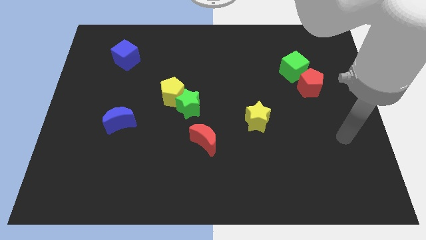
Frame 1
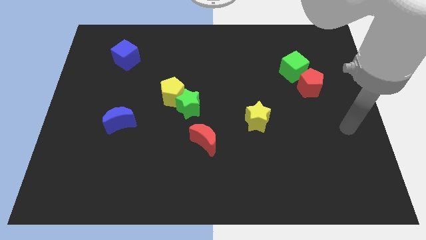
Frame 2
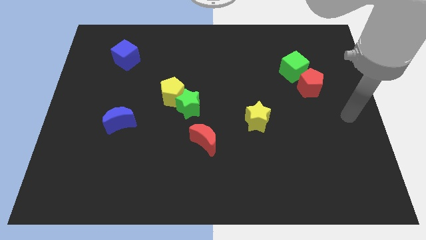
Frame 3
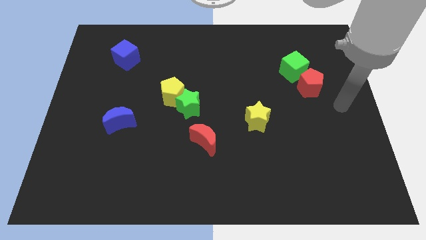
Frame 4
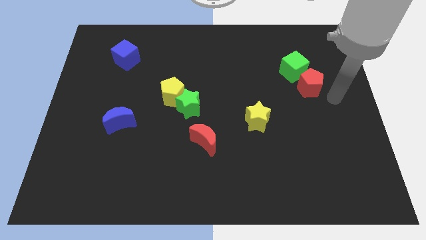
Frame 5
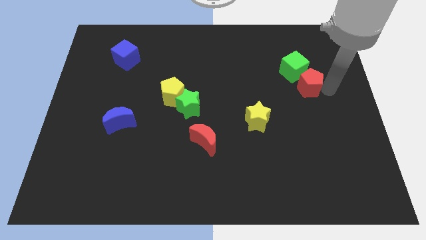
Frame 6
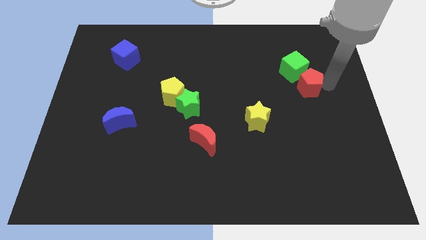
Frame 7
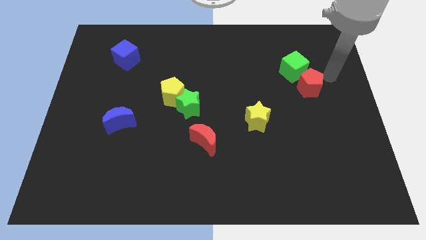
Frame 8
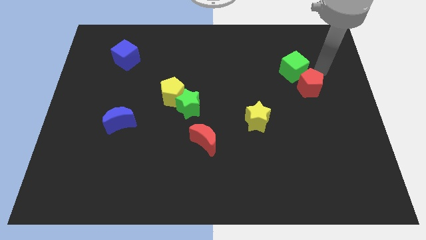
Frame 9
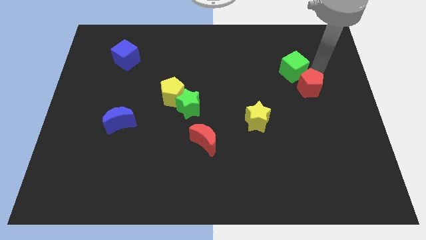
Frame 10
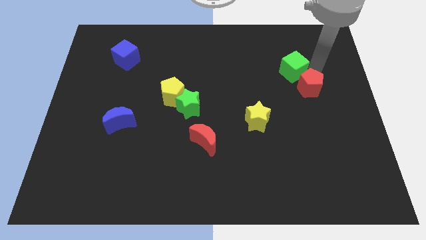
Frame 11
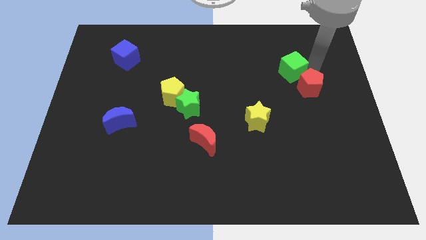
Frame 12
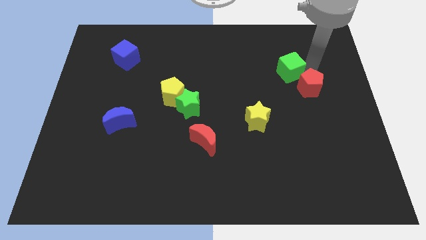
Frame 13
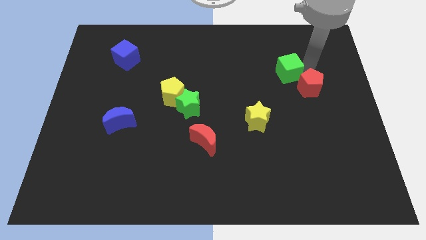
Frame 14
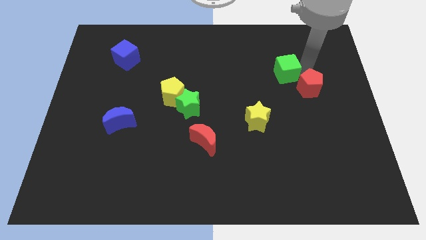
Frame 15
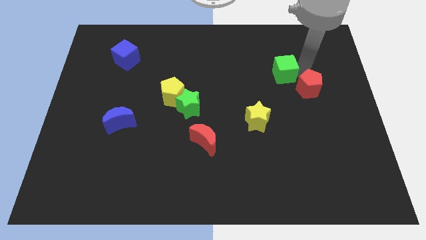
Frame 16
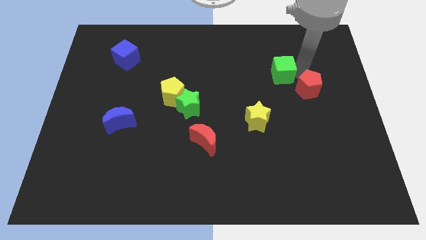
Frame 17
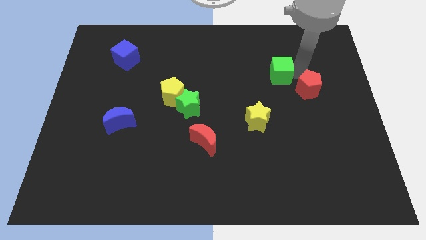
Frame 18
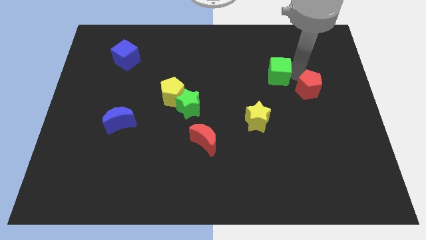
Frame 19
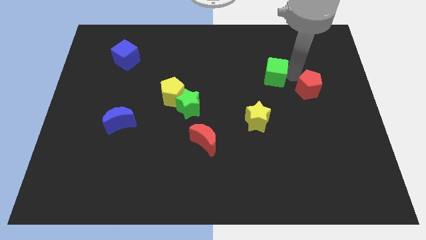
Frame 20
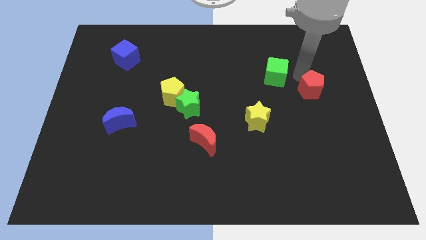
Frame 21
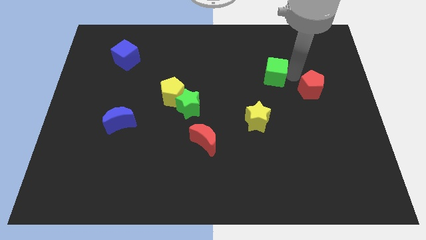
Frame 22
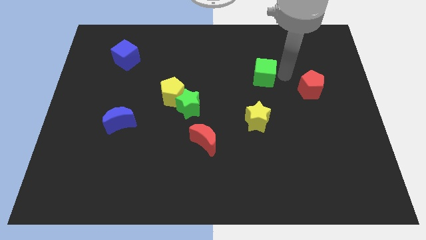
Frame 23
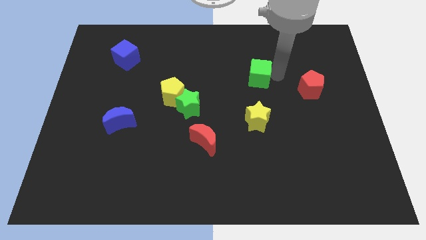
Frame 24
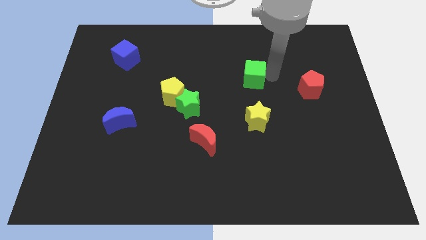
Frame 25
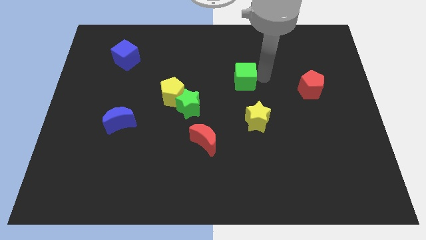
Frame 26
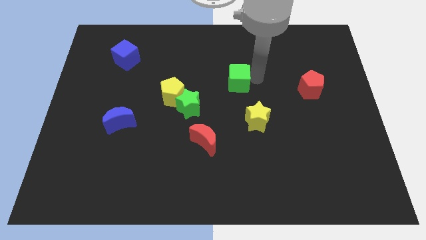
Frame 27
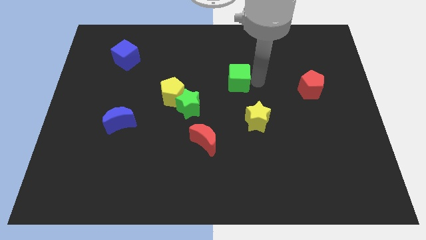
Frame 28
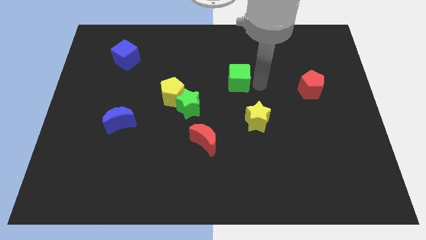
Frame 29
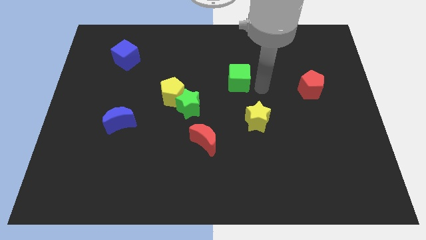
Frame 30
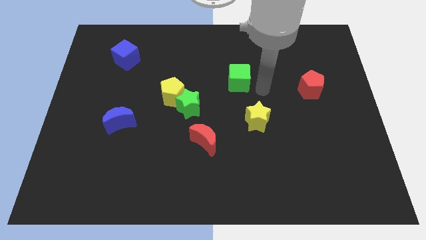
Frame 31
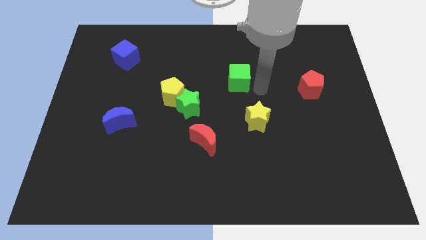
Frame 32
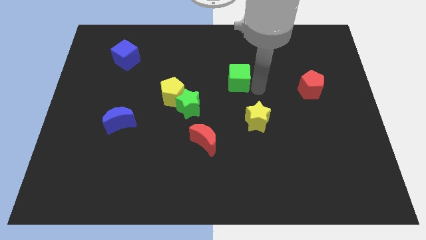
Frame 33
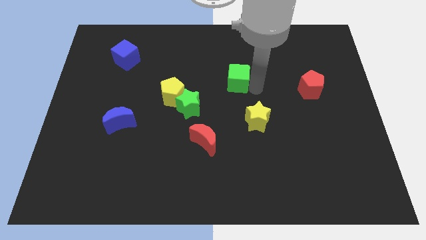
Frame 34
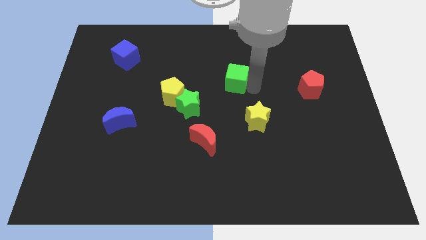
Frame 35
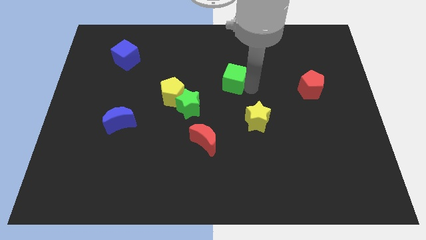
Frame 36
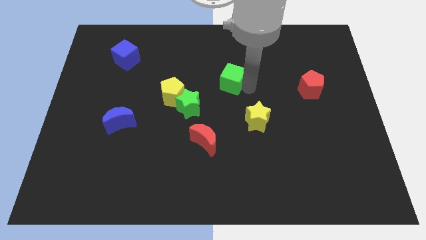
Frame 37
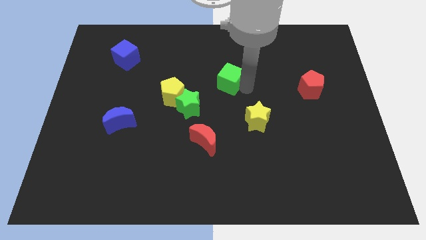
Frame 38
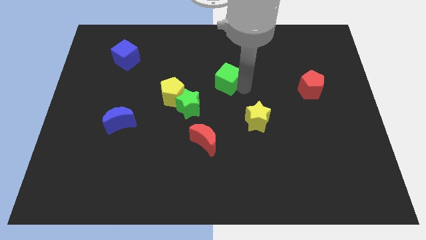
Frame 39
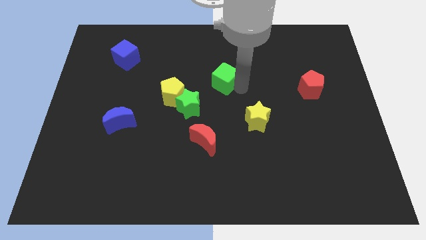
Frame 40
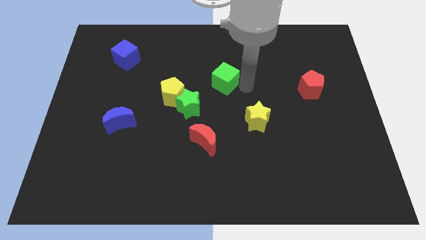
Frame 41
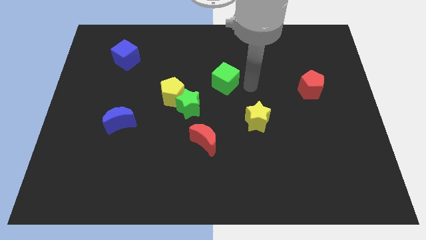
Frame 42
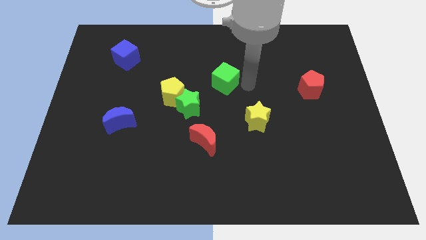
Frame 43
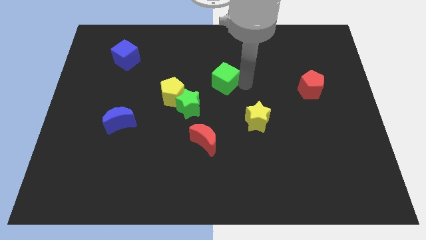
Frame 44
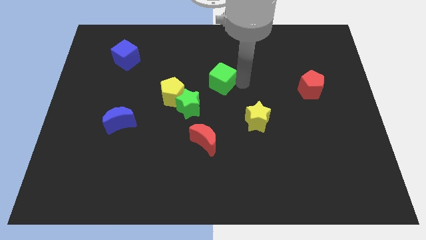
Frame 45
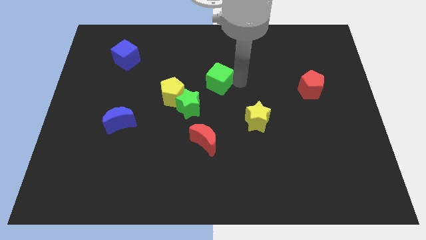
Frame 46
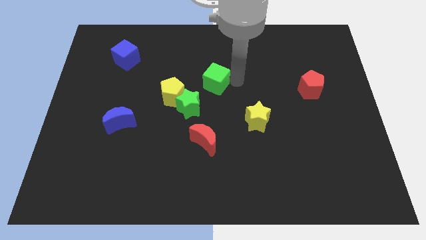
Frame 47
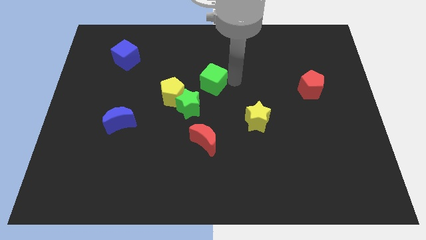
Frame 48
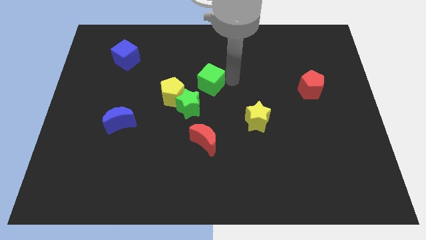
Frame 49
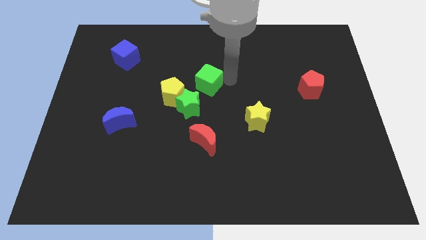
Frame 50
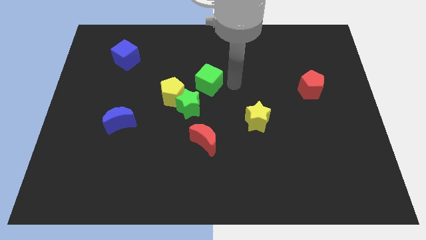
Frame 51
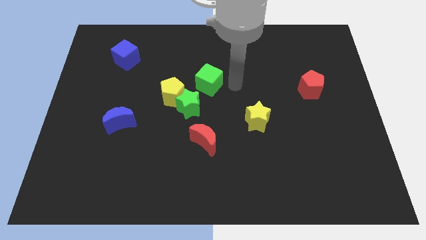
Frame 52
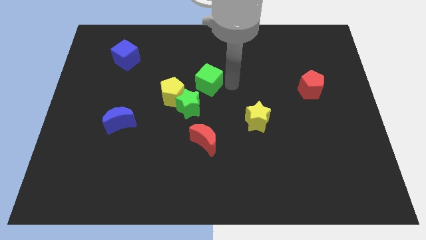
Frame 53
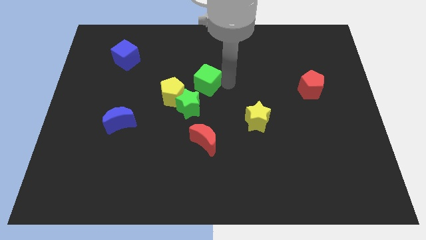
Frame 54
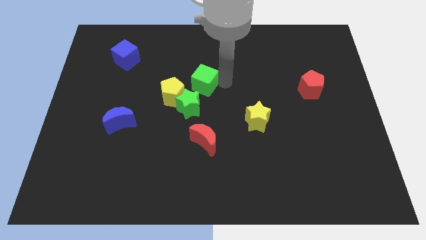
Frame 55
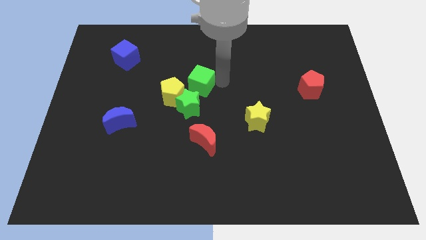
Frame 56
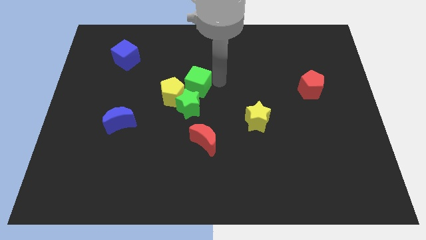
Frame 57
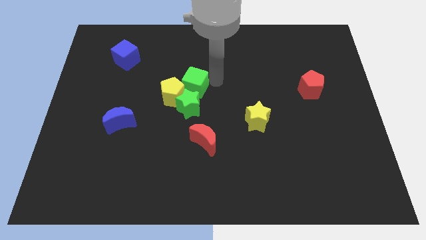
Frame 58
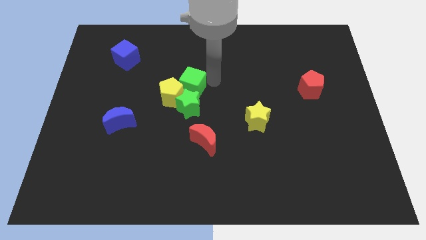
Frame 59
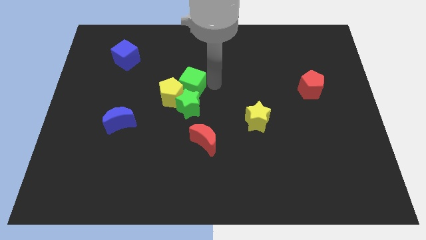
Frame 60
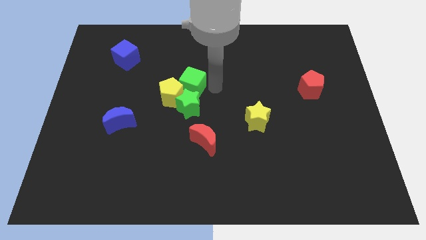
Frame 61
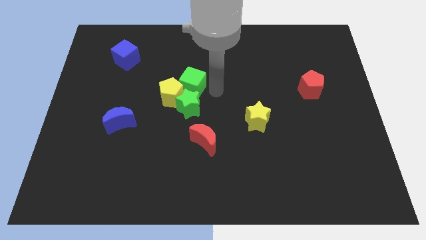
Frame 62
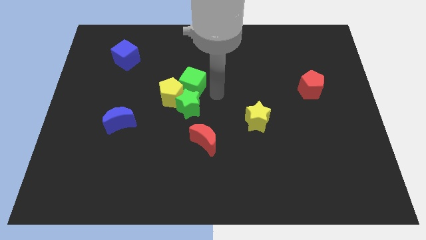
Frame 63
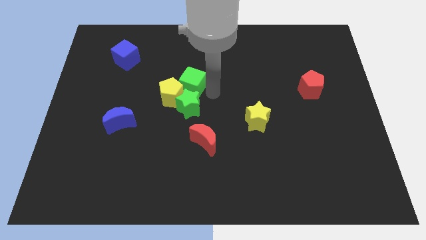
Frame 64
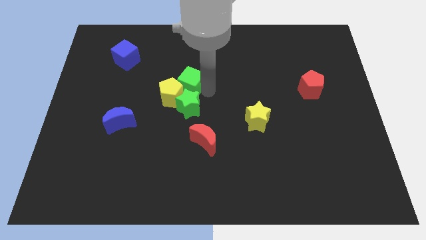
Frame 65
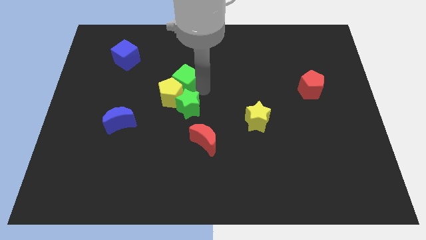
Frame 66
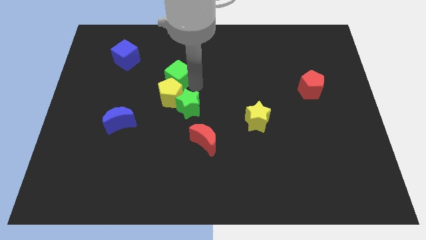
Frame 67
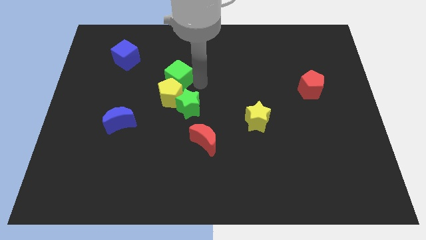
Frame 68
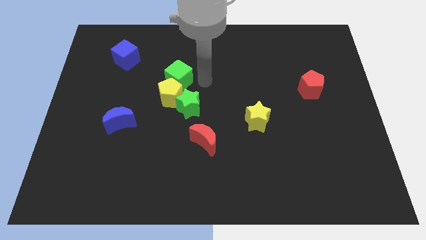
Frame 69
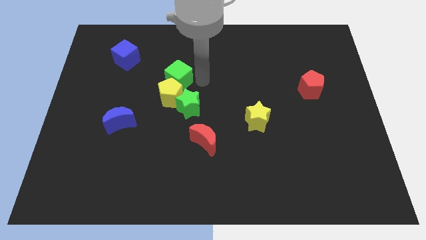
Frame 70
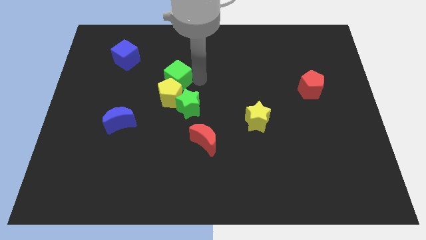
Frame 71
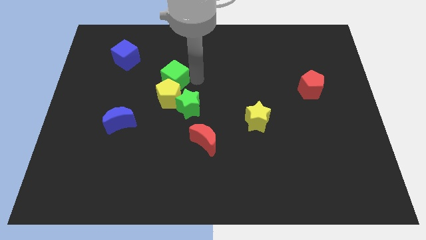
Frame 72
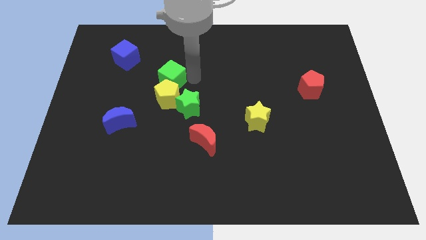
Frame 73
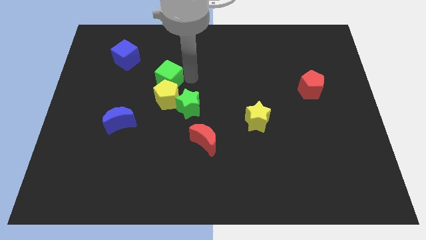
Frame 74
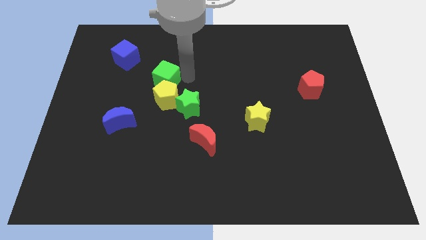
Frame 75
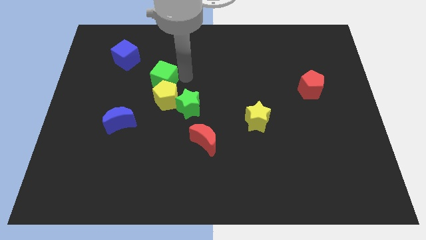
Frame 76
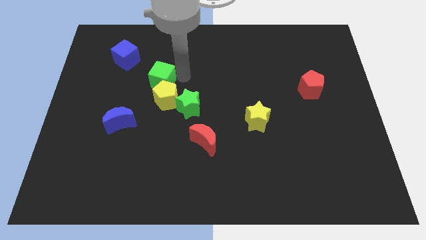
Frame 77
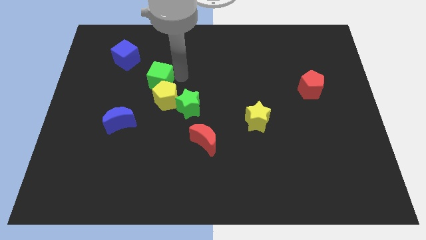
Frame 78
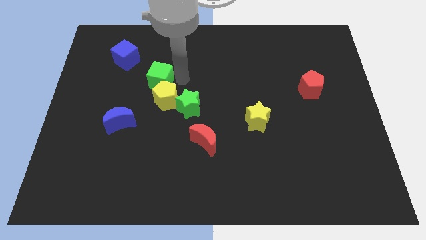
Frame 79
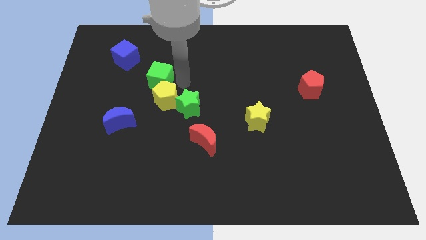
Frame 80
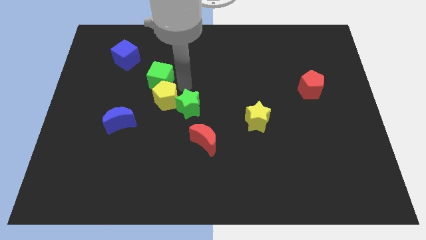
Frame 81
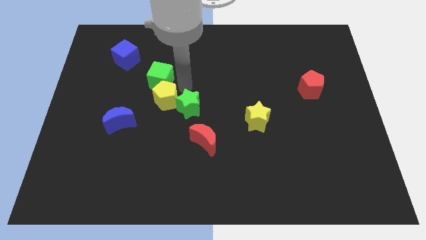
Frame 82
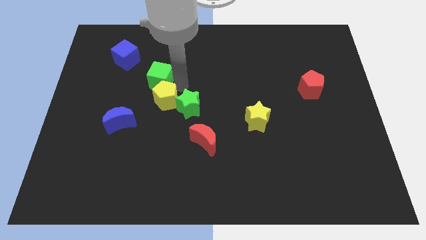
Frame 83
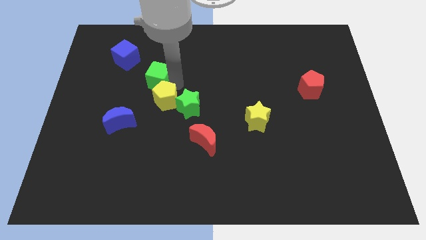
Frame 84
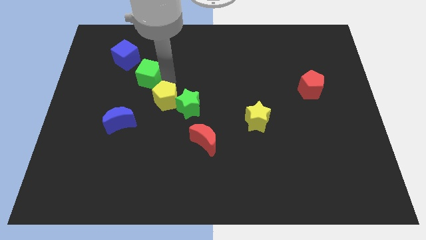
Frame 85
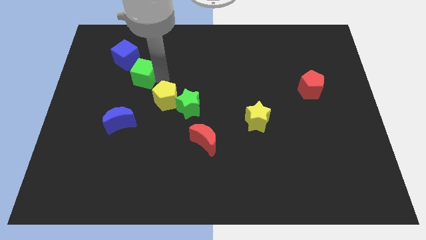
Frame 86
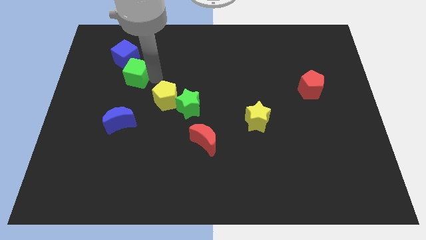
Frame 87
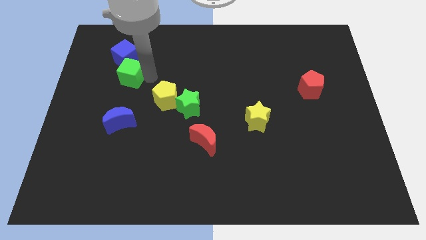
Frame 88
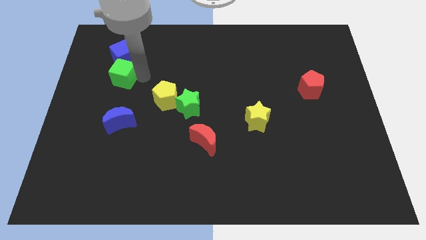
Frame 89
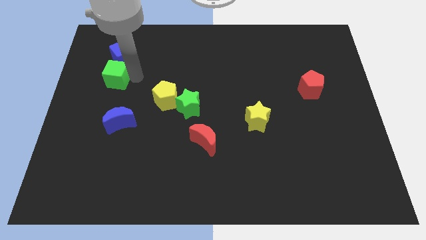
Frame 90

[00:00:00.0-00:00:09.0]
move the green cube to the bottom left side of the blue cube
